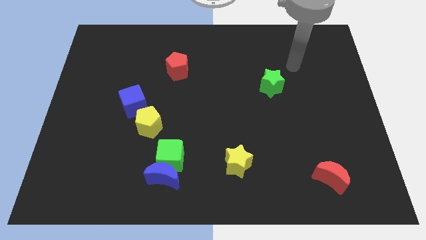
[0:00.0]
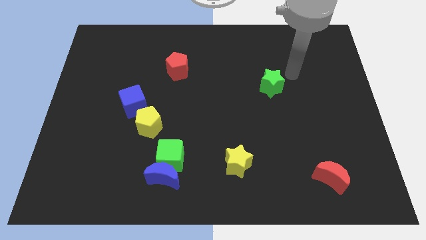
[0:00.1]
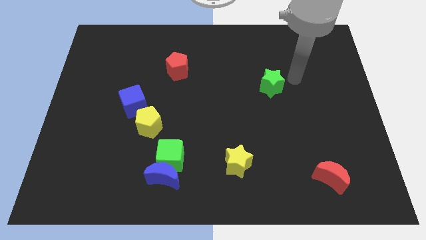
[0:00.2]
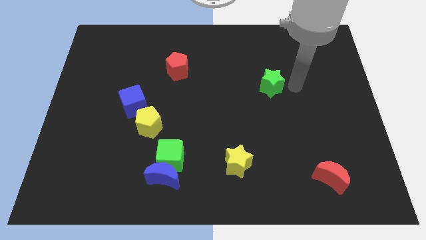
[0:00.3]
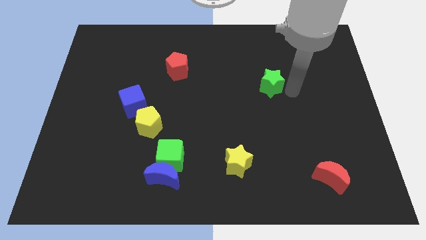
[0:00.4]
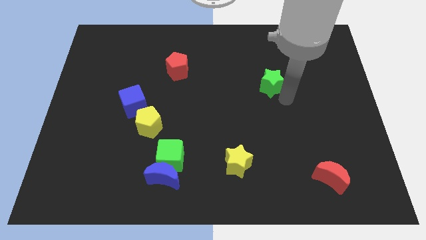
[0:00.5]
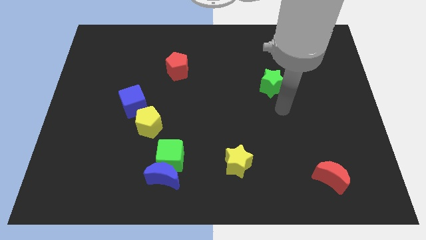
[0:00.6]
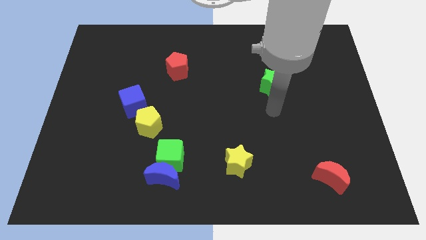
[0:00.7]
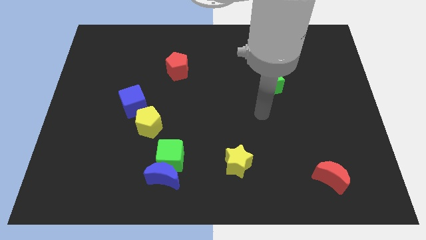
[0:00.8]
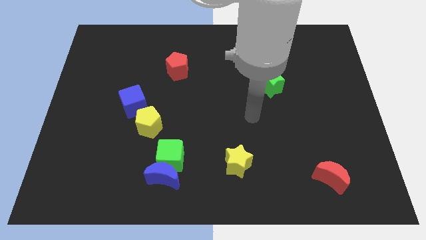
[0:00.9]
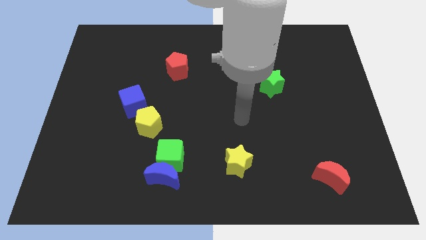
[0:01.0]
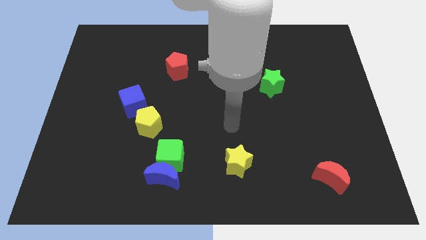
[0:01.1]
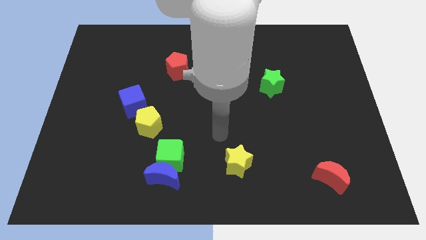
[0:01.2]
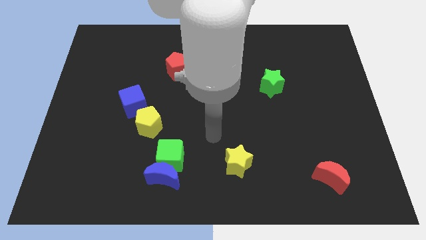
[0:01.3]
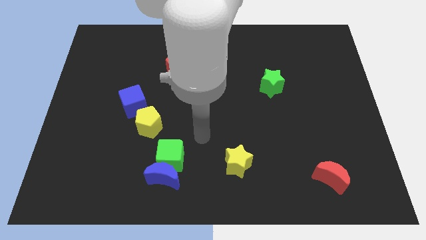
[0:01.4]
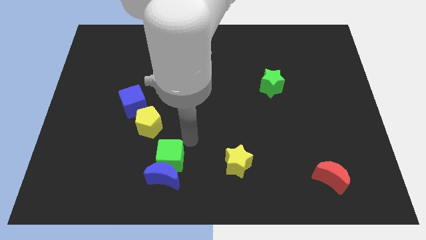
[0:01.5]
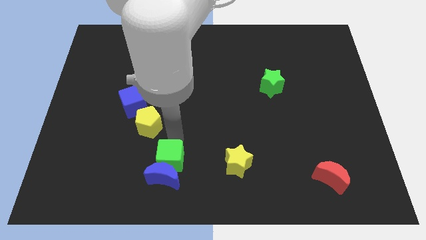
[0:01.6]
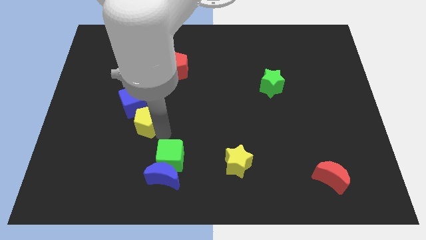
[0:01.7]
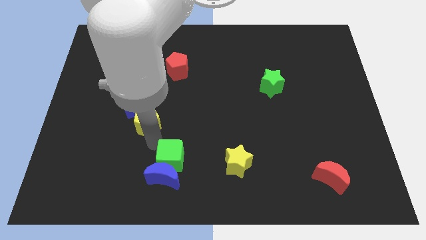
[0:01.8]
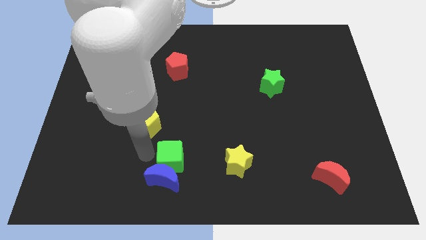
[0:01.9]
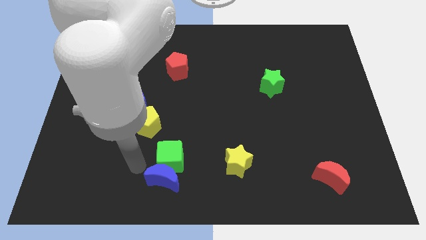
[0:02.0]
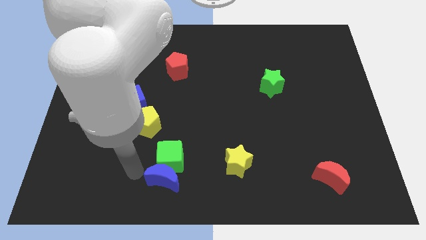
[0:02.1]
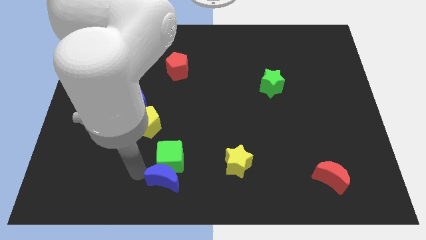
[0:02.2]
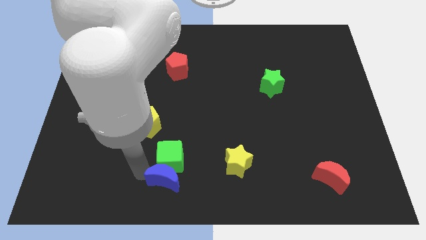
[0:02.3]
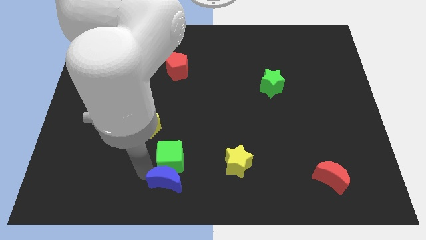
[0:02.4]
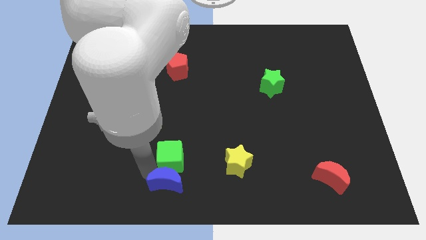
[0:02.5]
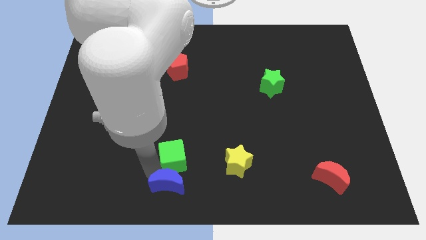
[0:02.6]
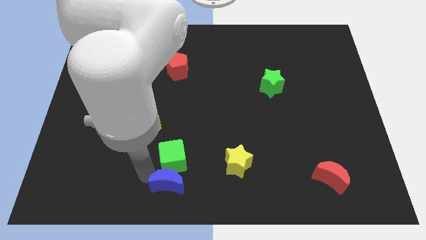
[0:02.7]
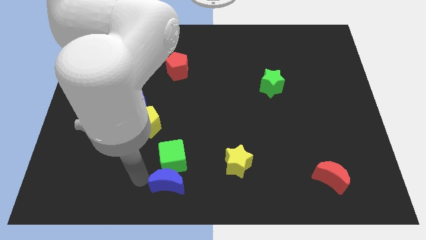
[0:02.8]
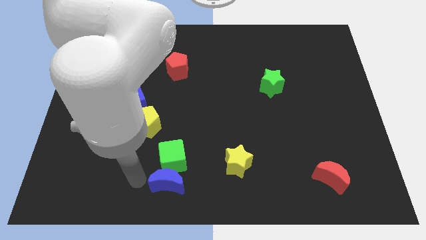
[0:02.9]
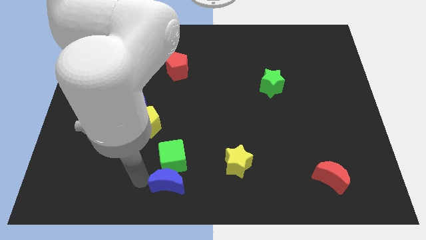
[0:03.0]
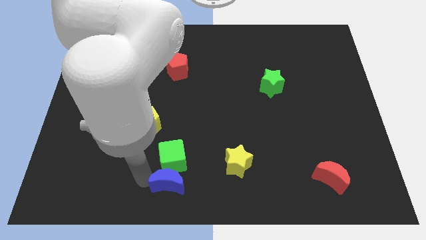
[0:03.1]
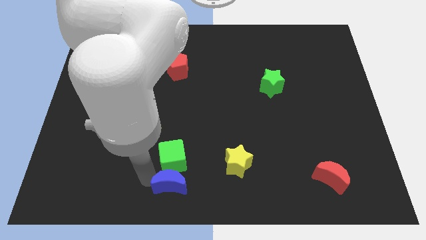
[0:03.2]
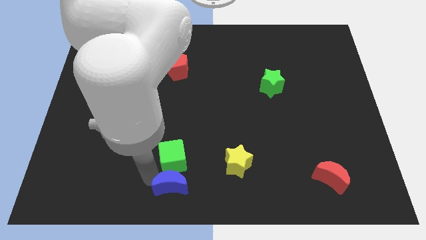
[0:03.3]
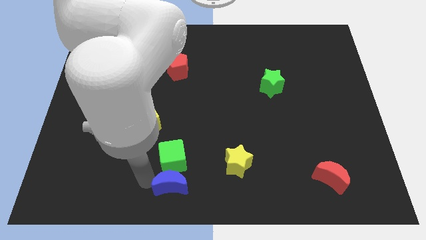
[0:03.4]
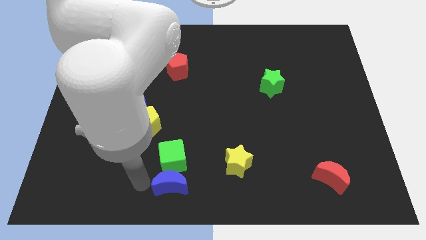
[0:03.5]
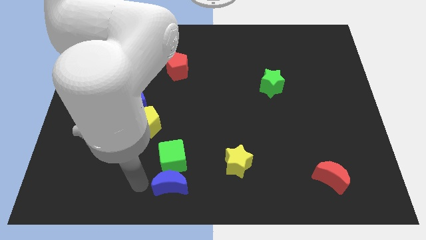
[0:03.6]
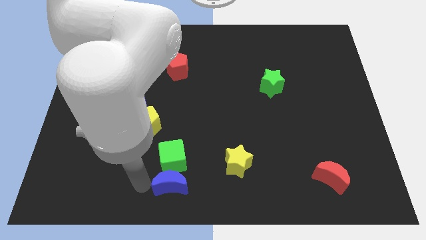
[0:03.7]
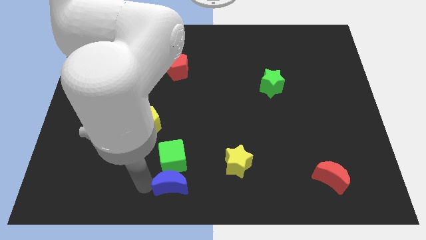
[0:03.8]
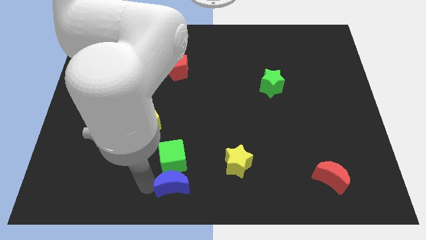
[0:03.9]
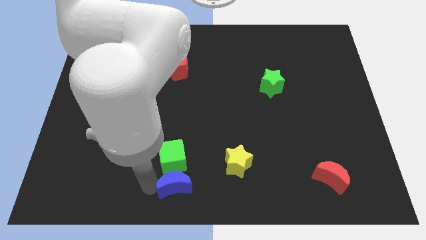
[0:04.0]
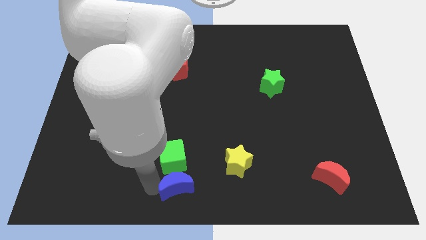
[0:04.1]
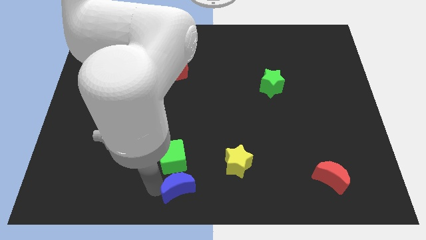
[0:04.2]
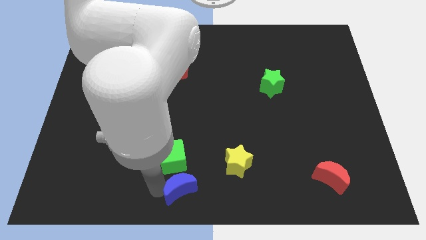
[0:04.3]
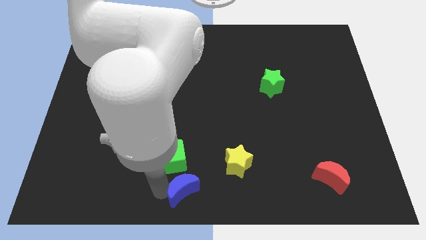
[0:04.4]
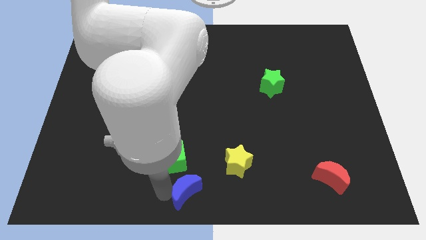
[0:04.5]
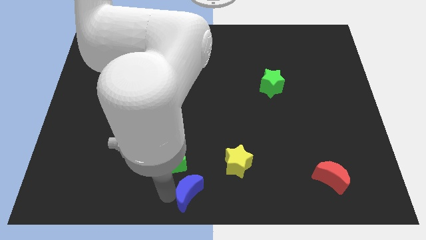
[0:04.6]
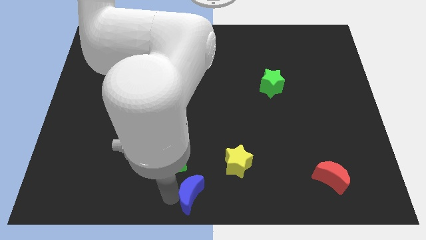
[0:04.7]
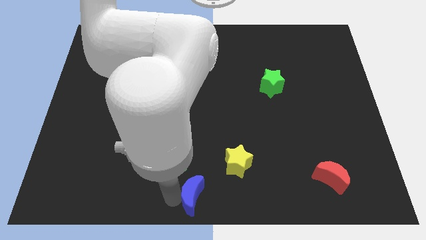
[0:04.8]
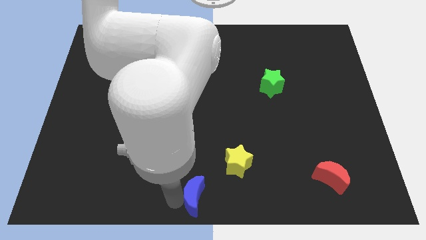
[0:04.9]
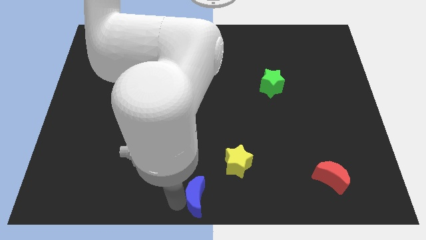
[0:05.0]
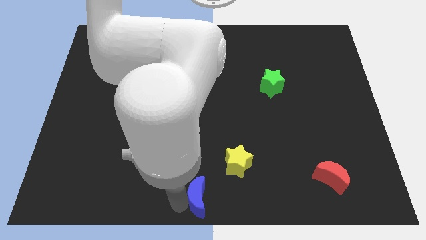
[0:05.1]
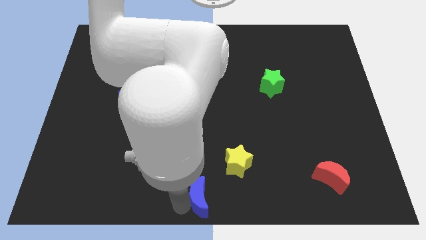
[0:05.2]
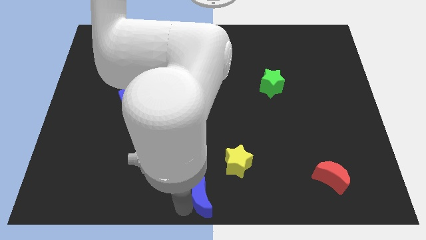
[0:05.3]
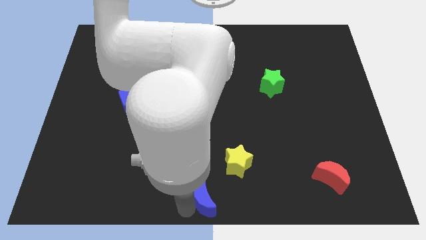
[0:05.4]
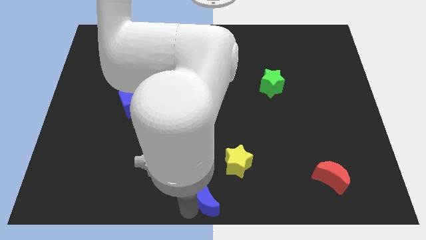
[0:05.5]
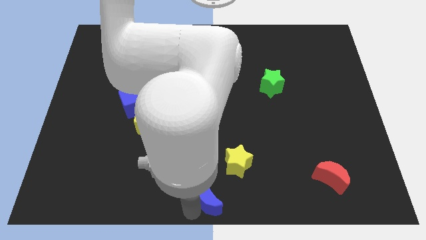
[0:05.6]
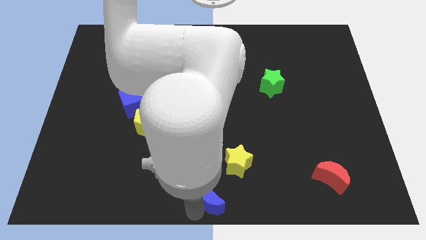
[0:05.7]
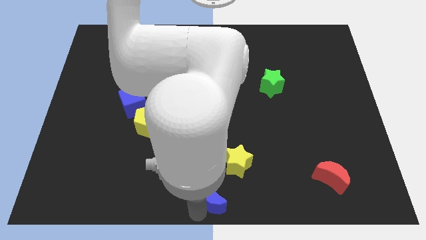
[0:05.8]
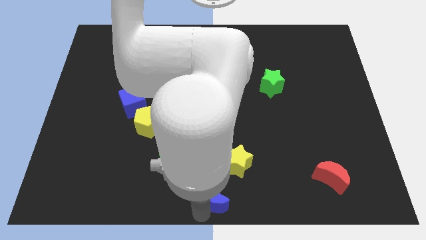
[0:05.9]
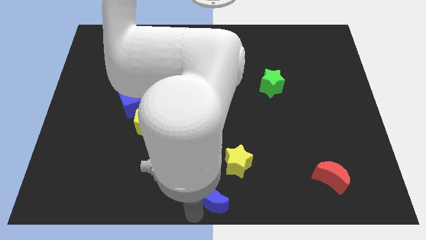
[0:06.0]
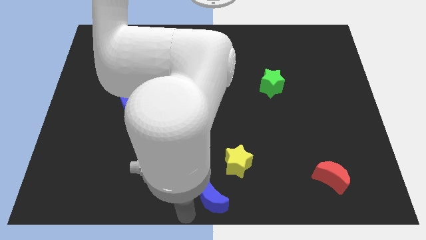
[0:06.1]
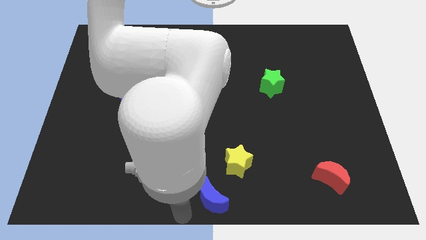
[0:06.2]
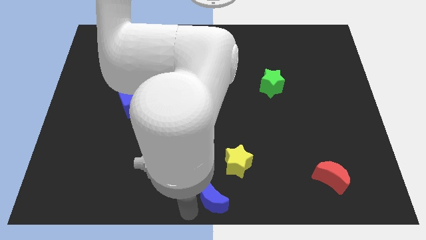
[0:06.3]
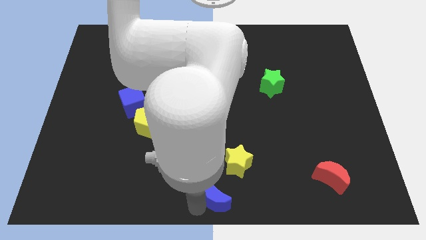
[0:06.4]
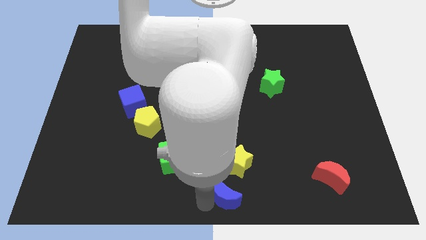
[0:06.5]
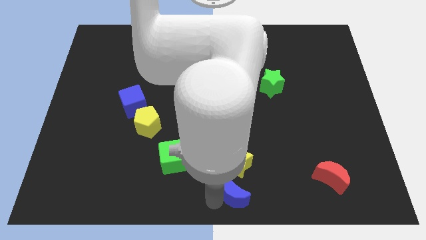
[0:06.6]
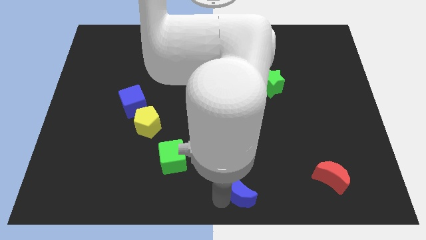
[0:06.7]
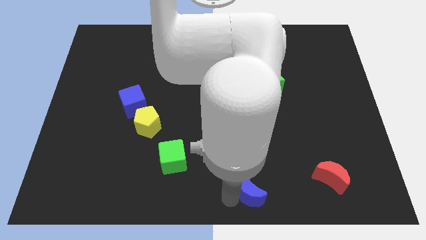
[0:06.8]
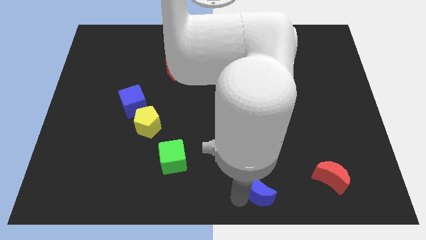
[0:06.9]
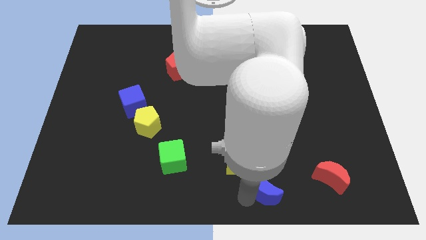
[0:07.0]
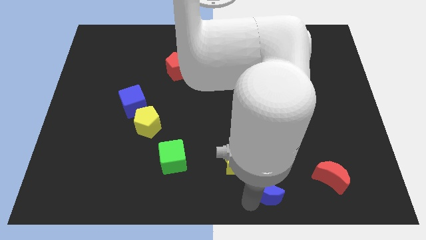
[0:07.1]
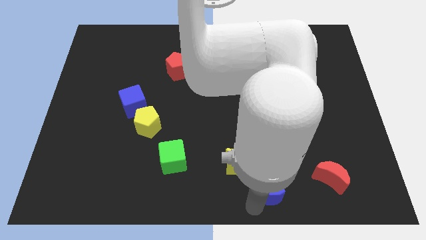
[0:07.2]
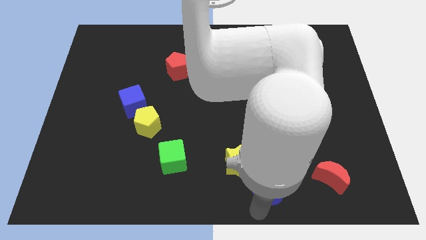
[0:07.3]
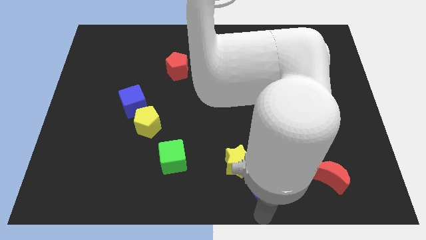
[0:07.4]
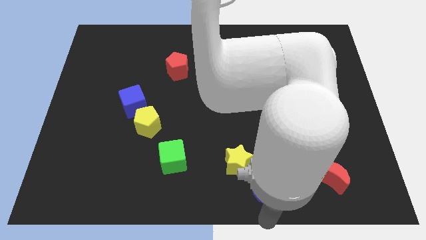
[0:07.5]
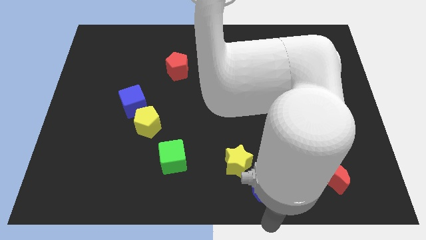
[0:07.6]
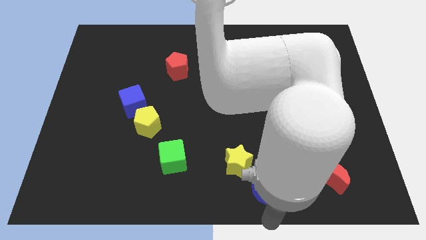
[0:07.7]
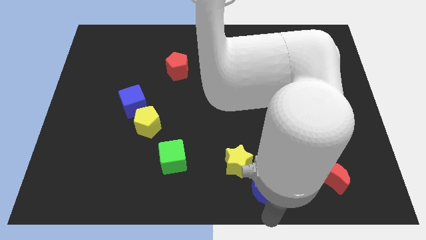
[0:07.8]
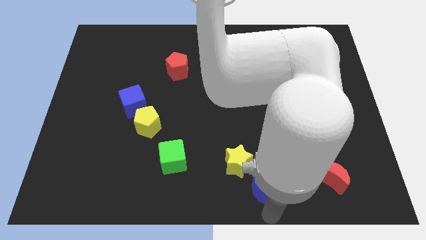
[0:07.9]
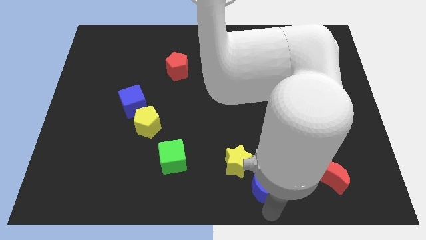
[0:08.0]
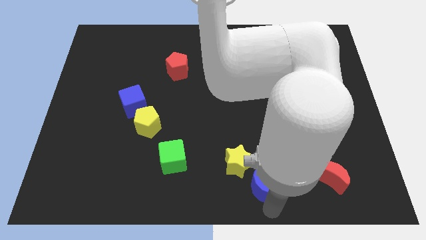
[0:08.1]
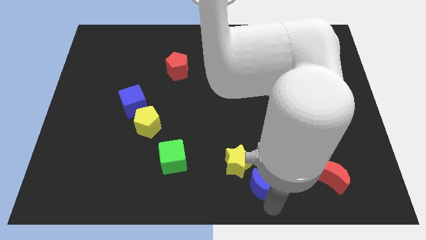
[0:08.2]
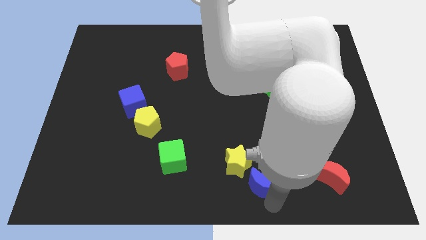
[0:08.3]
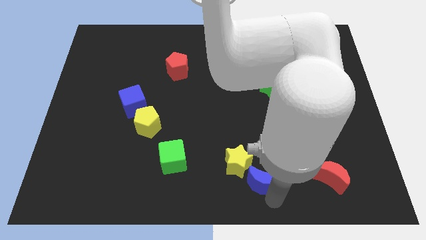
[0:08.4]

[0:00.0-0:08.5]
put the blue moon just right of the yellow star
